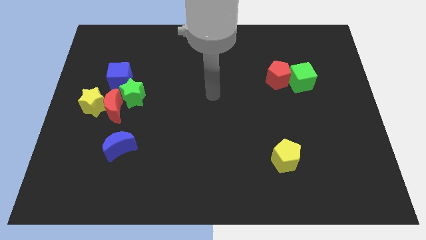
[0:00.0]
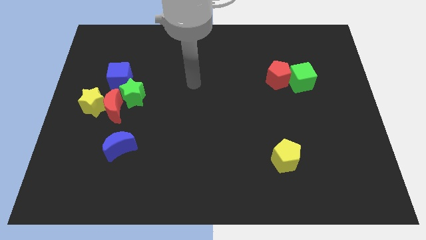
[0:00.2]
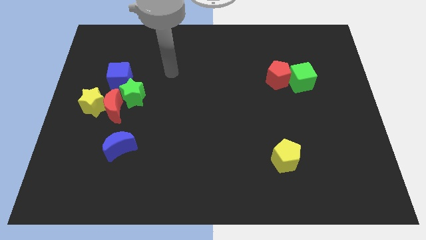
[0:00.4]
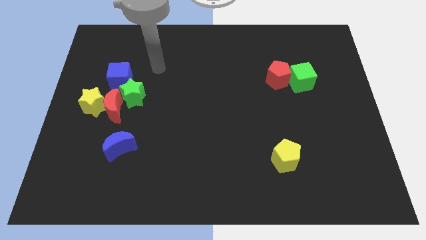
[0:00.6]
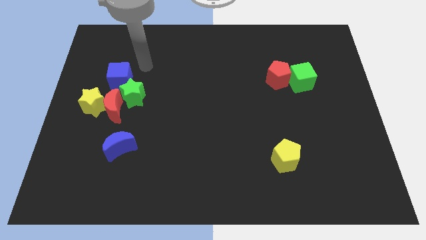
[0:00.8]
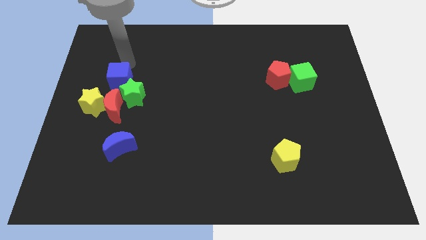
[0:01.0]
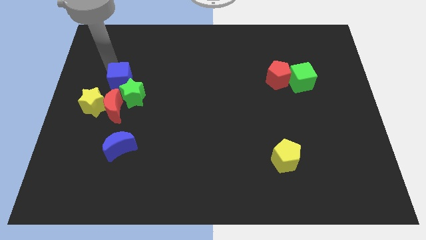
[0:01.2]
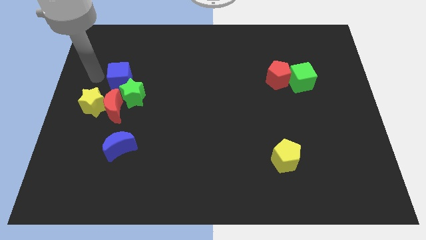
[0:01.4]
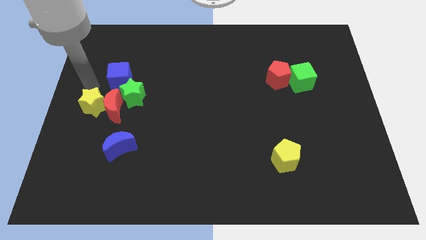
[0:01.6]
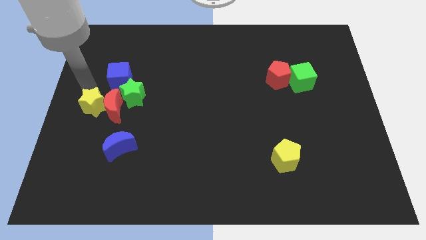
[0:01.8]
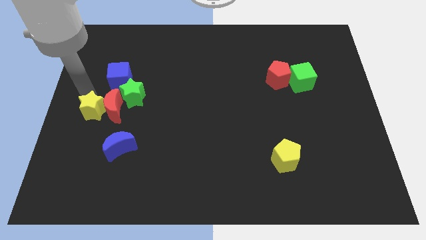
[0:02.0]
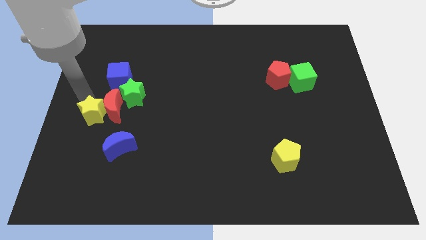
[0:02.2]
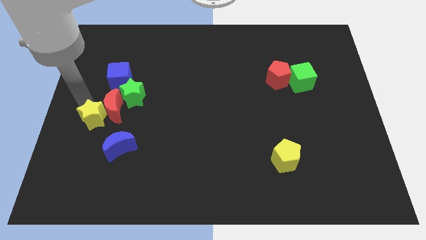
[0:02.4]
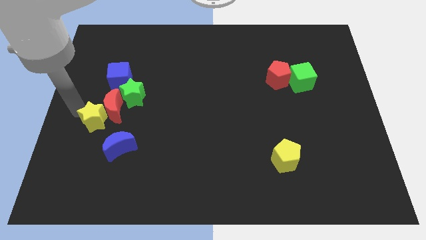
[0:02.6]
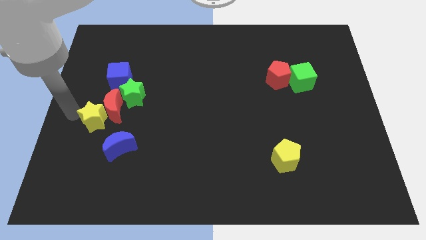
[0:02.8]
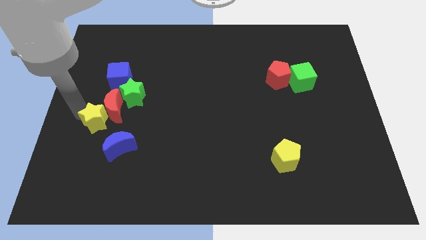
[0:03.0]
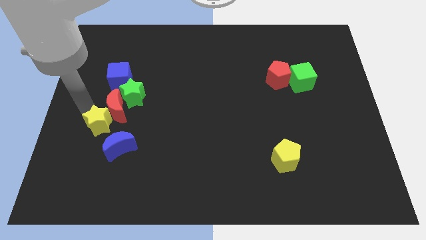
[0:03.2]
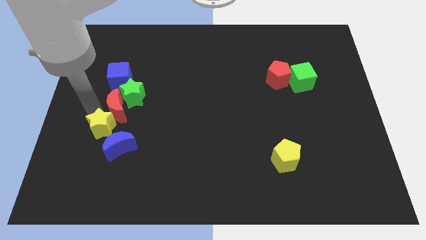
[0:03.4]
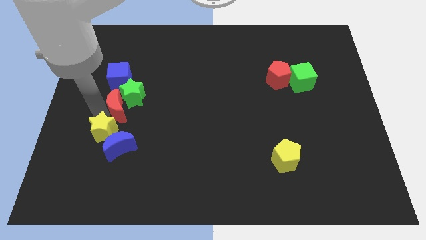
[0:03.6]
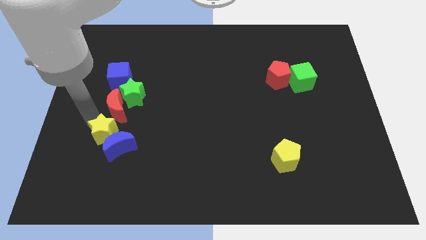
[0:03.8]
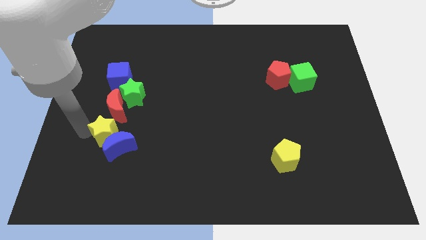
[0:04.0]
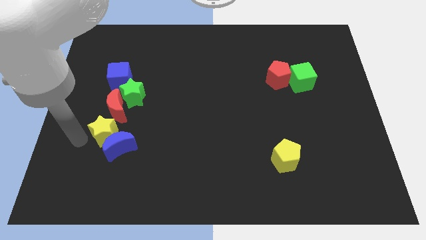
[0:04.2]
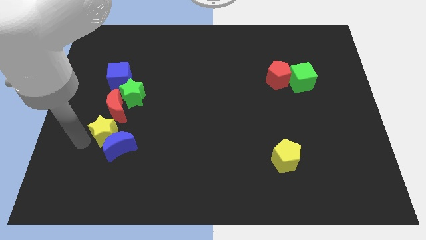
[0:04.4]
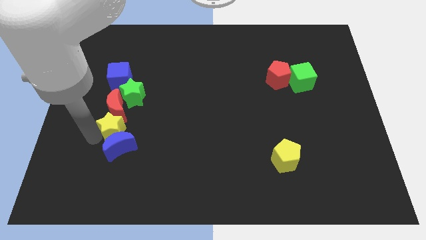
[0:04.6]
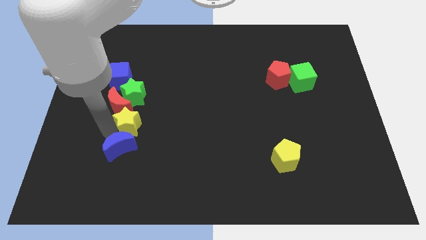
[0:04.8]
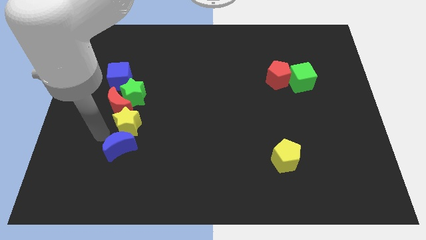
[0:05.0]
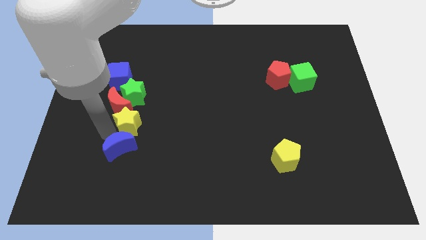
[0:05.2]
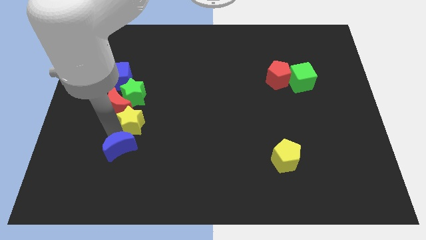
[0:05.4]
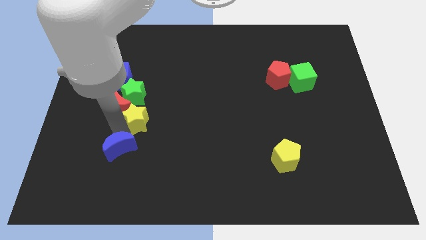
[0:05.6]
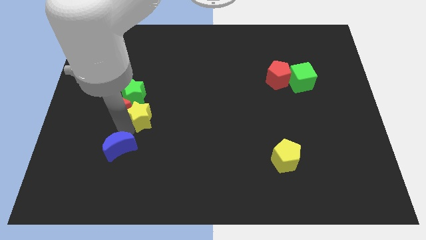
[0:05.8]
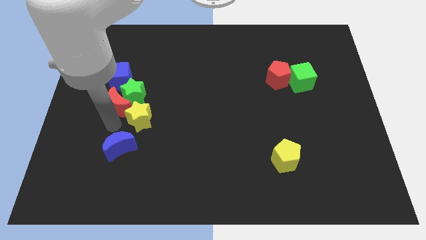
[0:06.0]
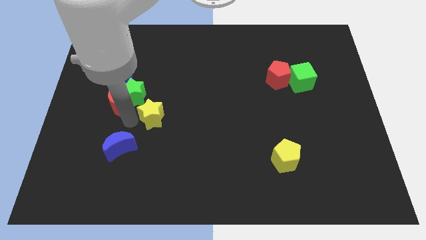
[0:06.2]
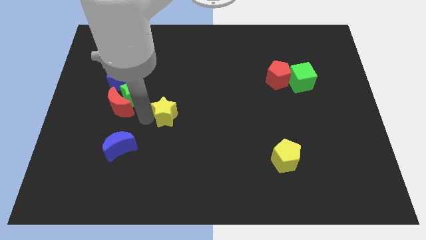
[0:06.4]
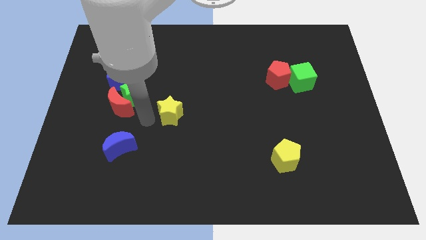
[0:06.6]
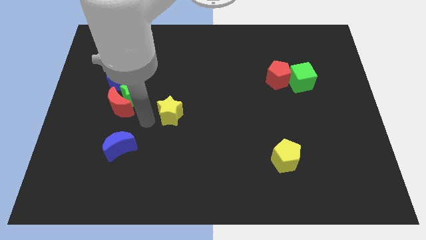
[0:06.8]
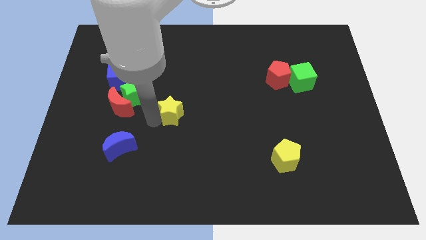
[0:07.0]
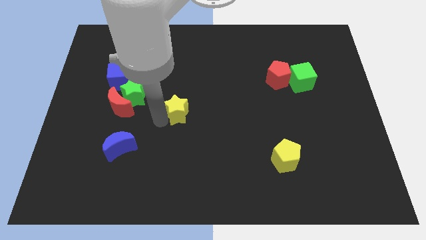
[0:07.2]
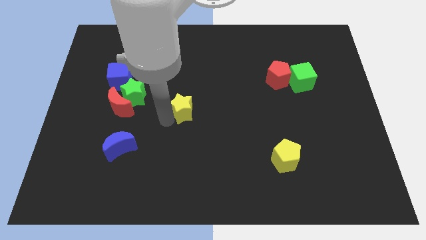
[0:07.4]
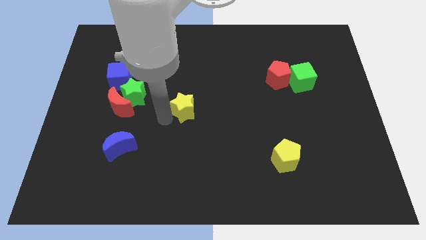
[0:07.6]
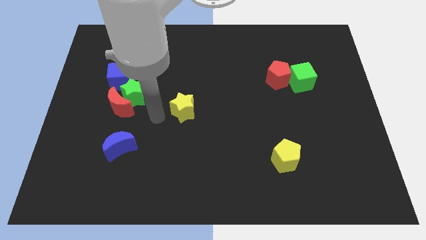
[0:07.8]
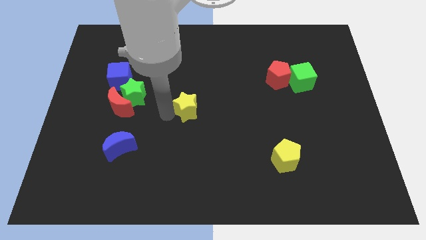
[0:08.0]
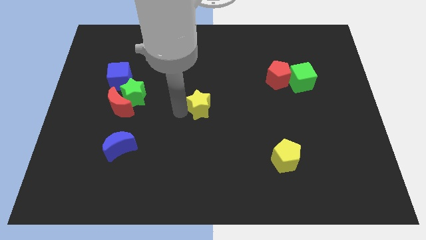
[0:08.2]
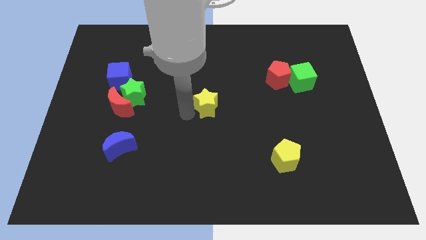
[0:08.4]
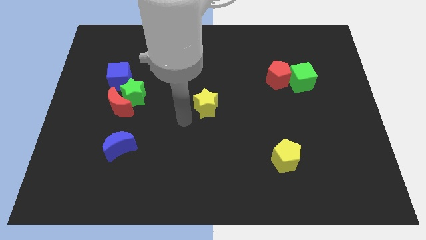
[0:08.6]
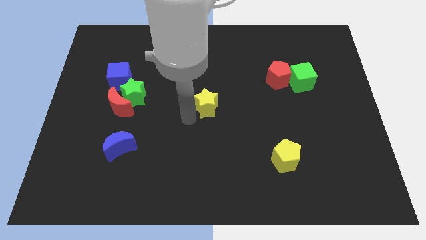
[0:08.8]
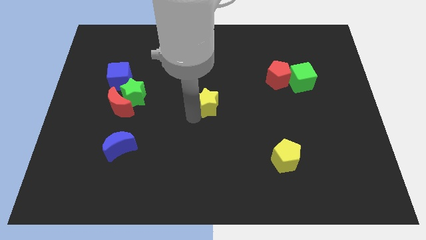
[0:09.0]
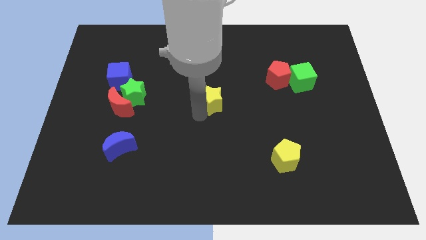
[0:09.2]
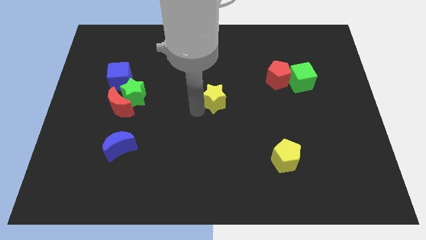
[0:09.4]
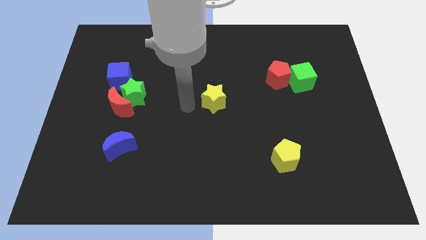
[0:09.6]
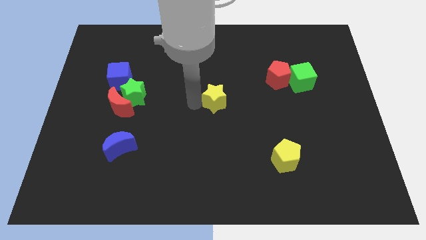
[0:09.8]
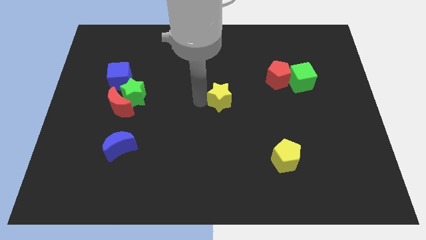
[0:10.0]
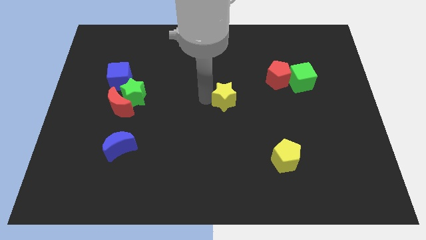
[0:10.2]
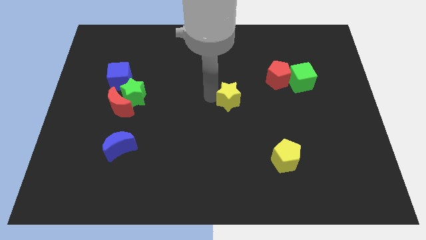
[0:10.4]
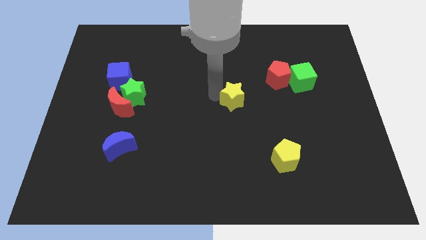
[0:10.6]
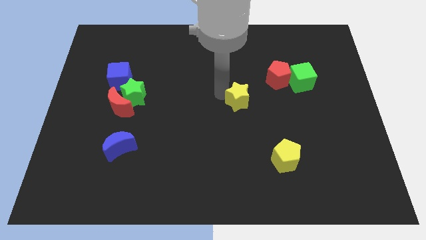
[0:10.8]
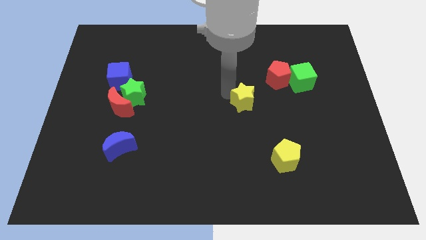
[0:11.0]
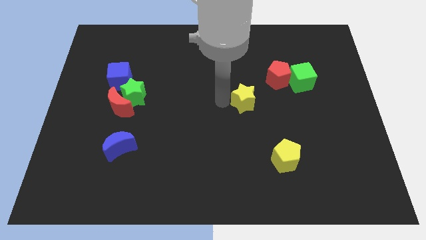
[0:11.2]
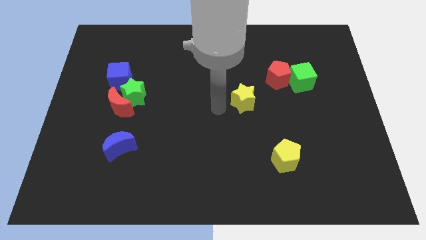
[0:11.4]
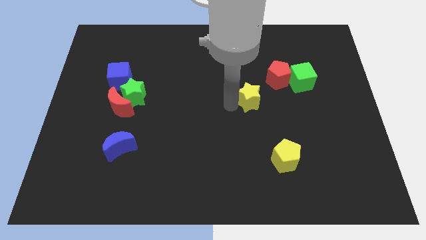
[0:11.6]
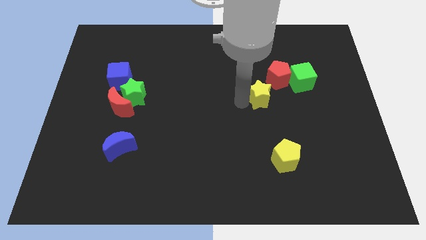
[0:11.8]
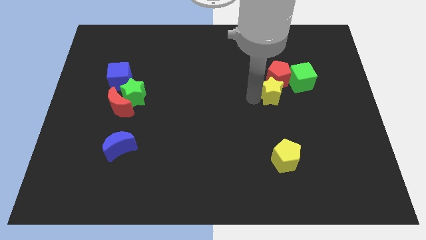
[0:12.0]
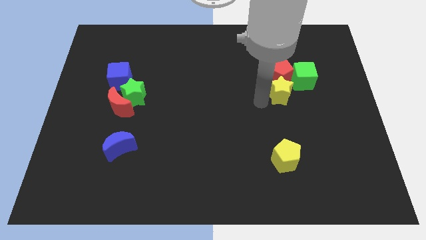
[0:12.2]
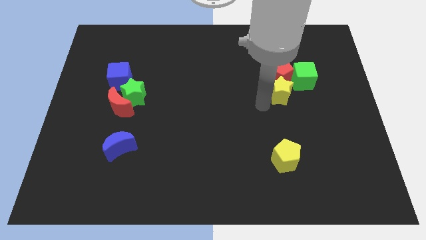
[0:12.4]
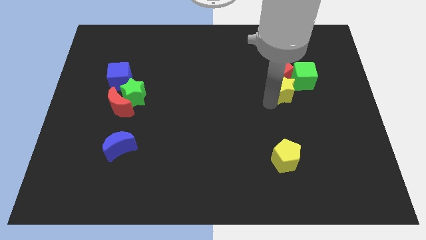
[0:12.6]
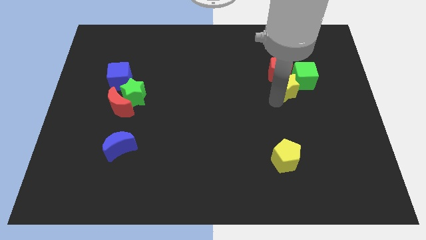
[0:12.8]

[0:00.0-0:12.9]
put the yellow star towards the green cube
